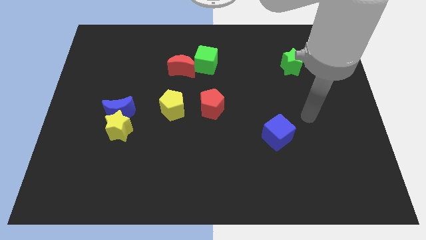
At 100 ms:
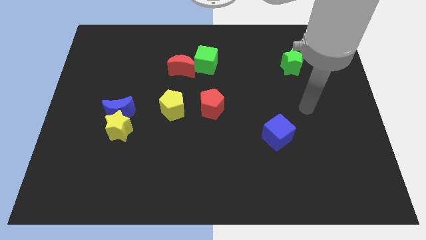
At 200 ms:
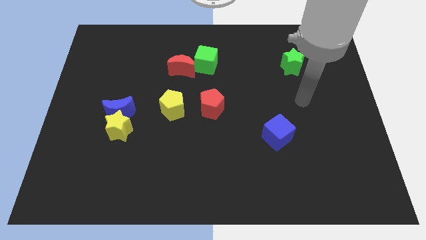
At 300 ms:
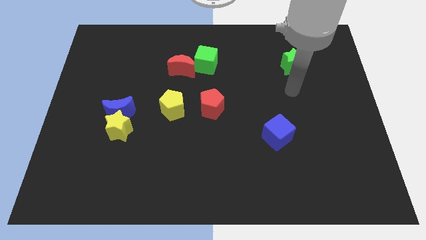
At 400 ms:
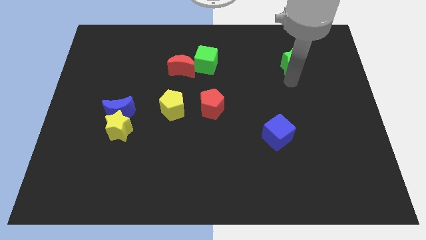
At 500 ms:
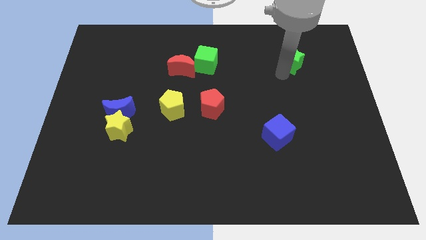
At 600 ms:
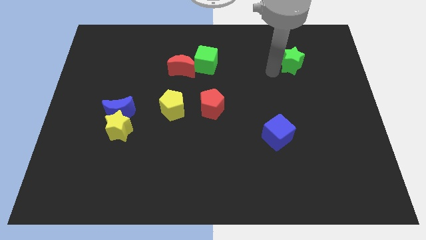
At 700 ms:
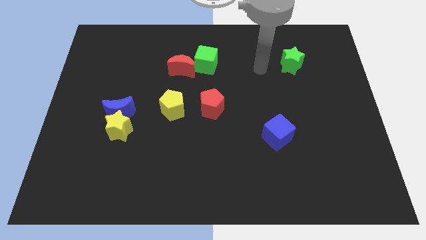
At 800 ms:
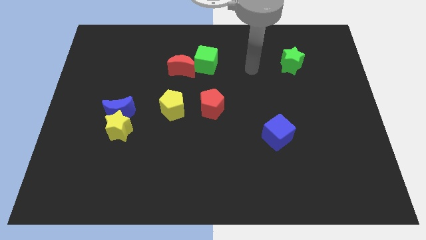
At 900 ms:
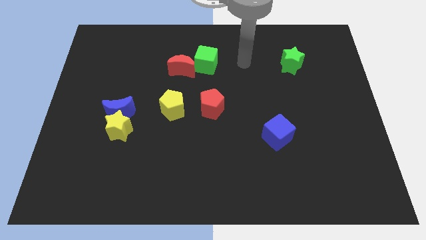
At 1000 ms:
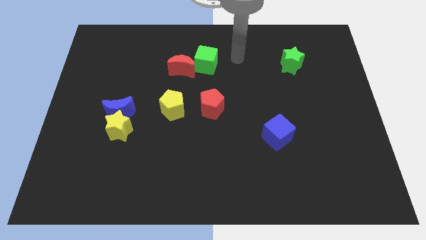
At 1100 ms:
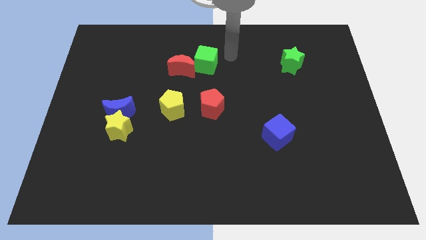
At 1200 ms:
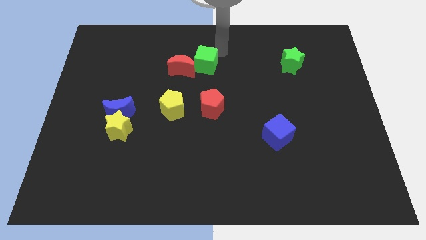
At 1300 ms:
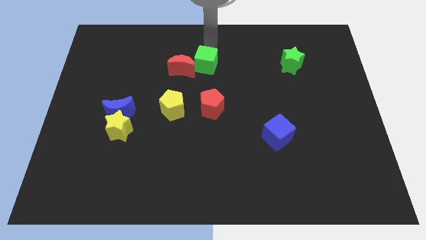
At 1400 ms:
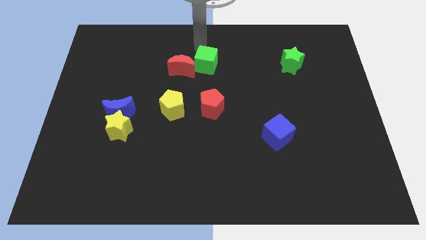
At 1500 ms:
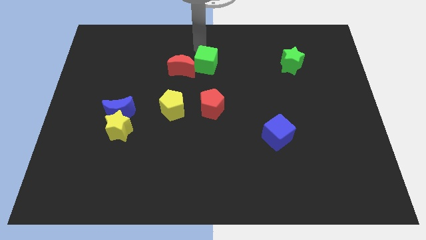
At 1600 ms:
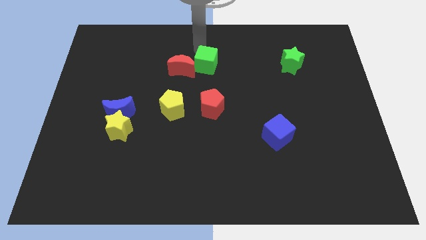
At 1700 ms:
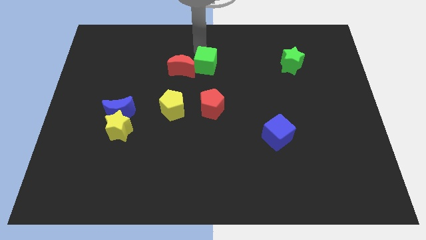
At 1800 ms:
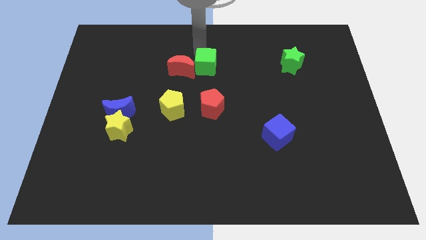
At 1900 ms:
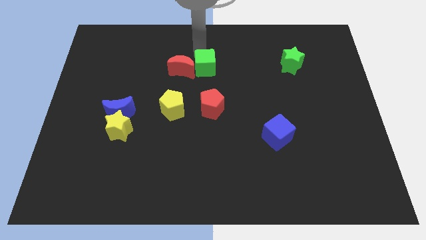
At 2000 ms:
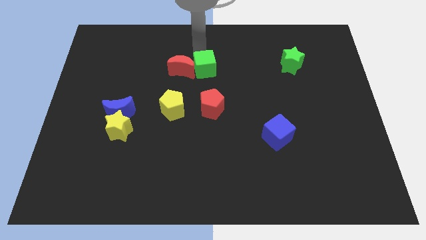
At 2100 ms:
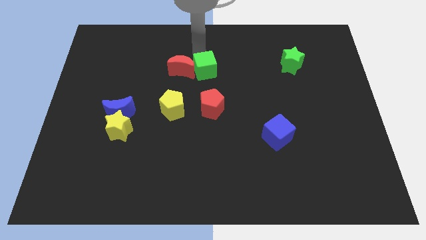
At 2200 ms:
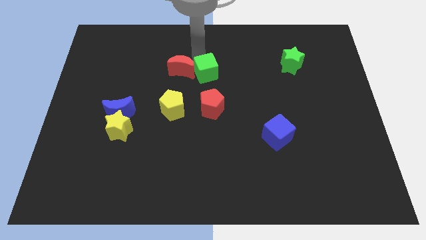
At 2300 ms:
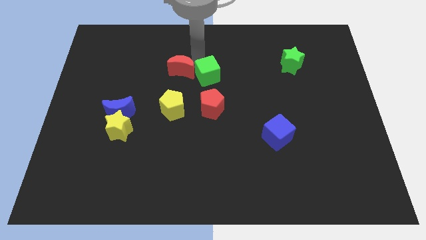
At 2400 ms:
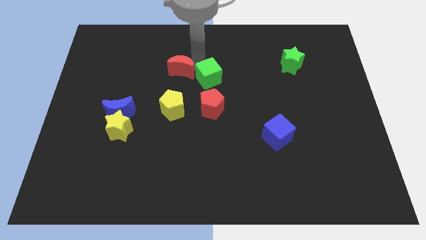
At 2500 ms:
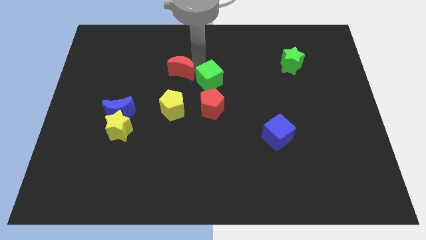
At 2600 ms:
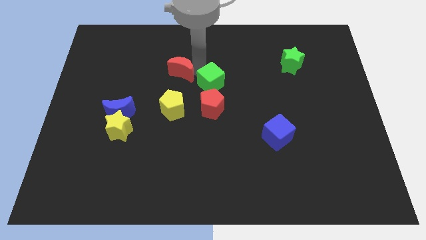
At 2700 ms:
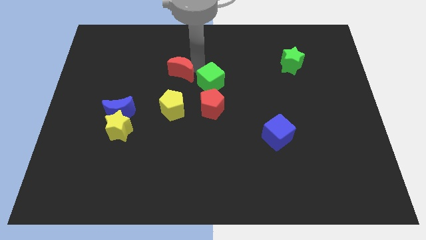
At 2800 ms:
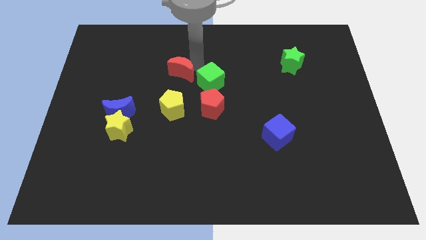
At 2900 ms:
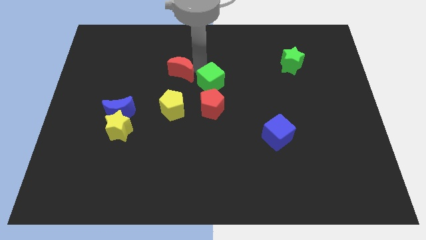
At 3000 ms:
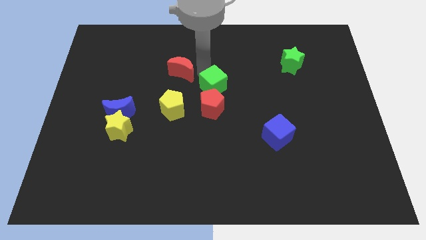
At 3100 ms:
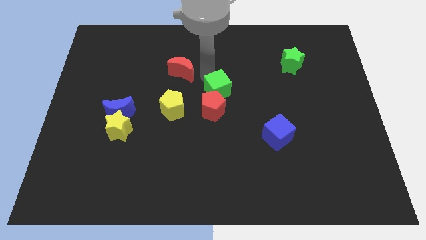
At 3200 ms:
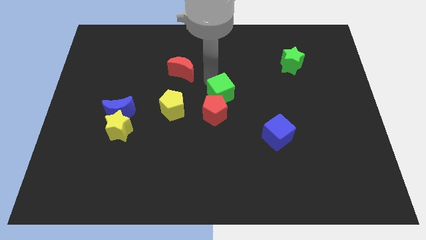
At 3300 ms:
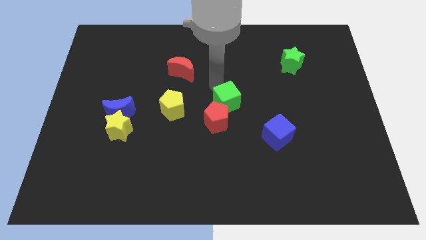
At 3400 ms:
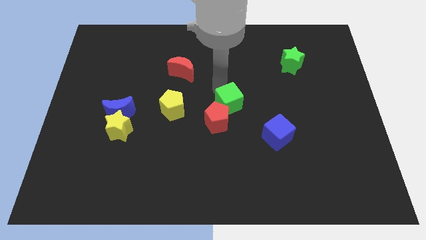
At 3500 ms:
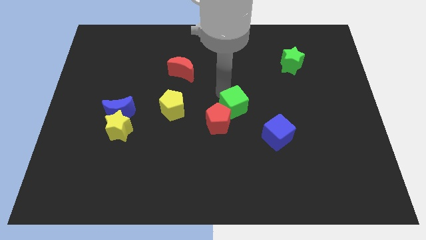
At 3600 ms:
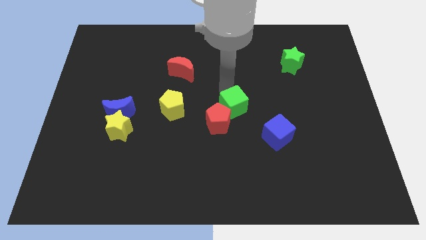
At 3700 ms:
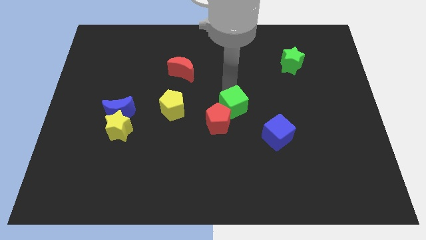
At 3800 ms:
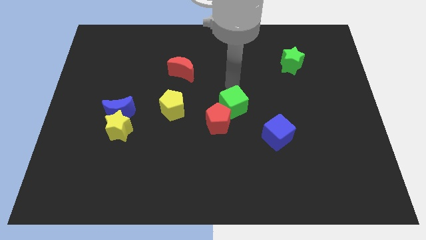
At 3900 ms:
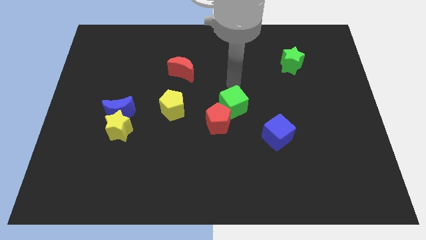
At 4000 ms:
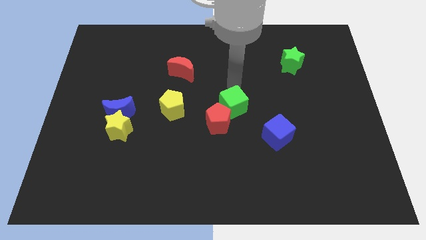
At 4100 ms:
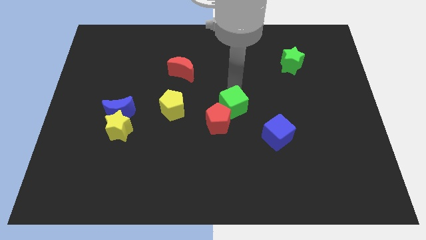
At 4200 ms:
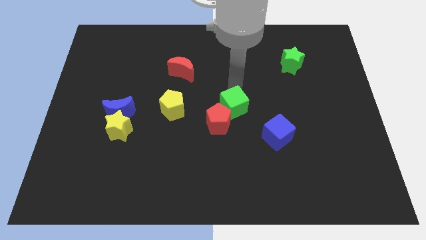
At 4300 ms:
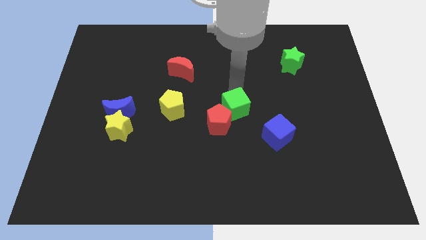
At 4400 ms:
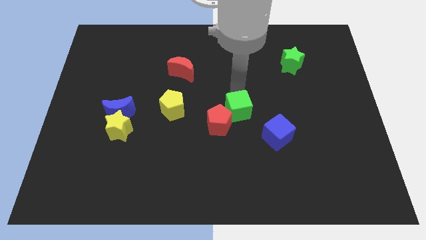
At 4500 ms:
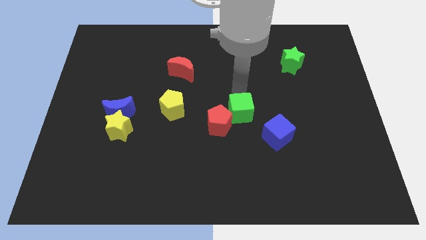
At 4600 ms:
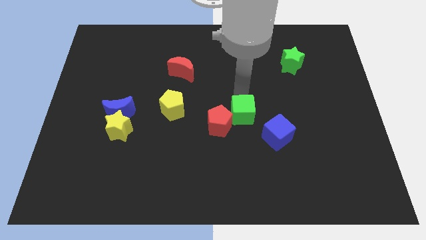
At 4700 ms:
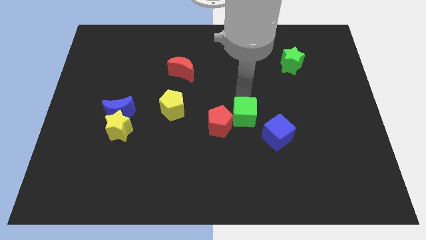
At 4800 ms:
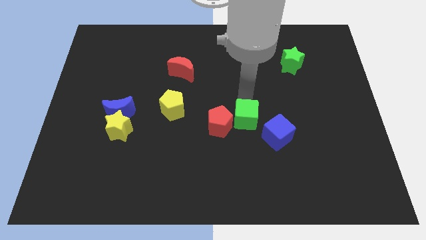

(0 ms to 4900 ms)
push the green cube to the left side of the blue cube

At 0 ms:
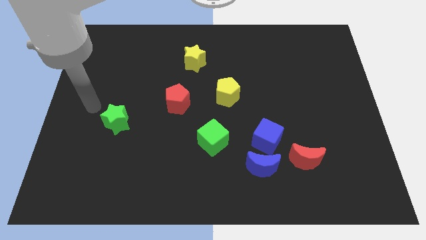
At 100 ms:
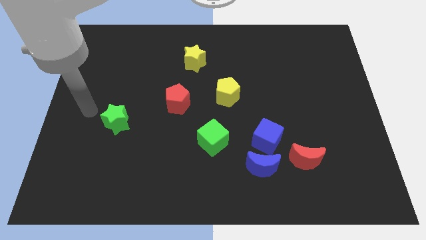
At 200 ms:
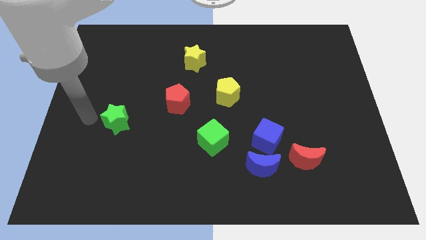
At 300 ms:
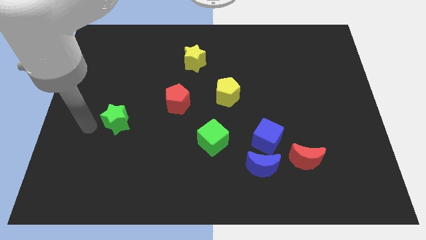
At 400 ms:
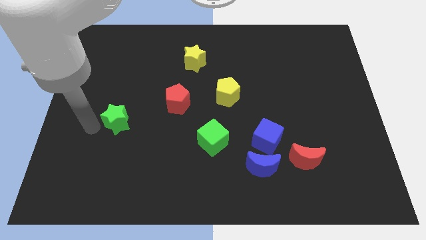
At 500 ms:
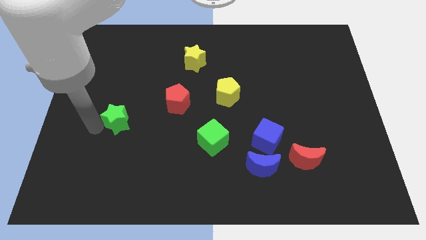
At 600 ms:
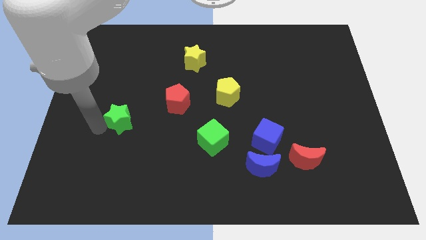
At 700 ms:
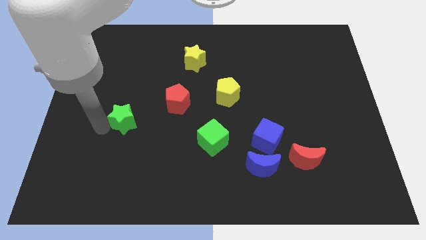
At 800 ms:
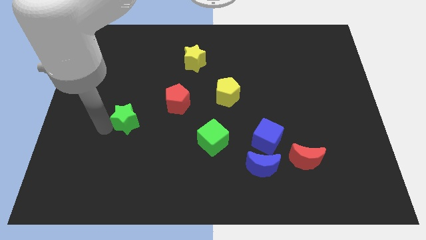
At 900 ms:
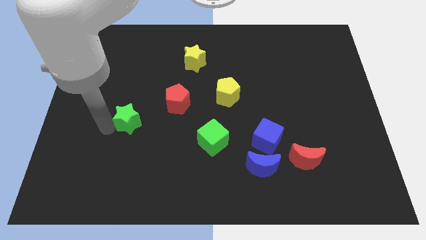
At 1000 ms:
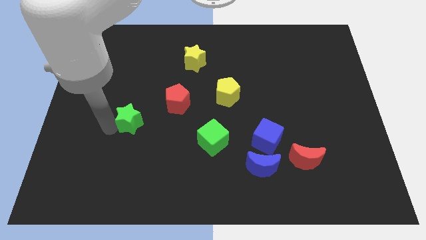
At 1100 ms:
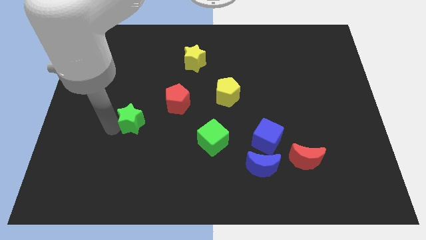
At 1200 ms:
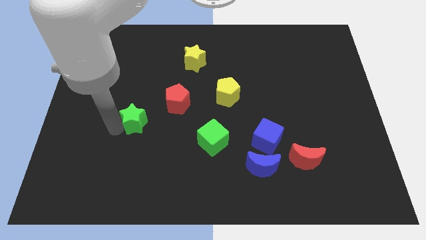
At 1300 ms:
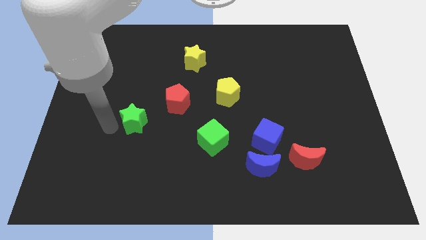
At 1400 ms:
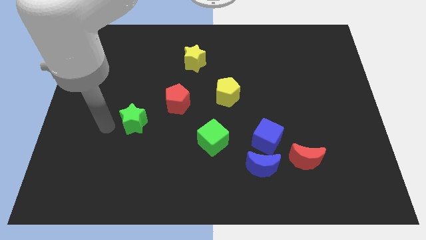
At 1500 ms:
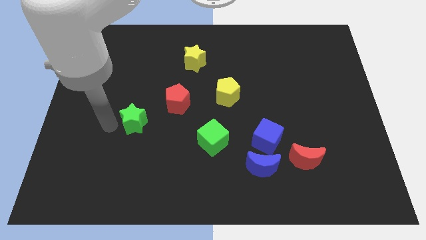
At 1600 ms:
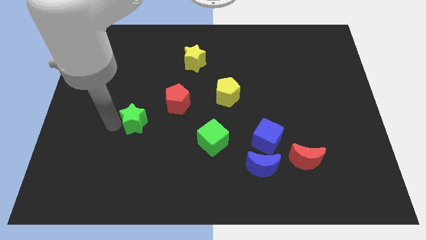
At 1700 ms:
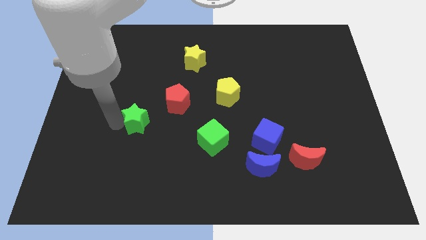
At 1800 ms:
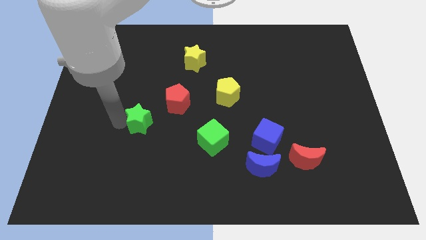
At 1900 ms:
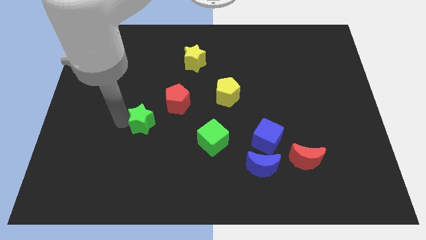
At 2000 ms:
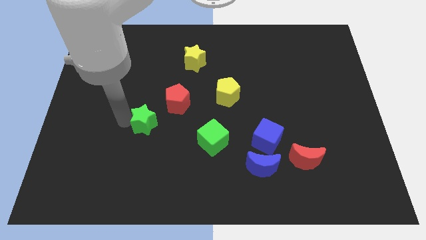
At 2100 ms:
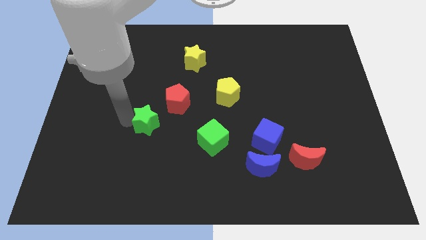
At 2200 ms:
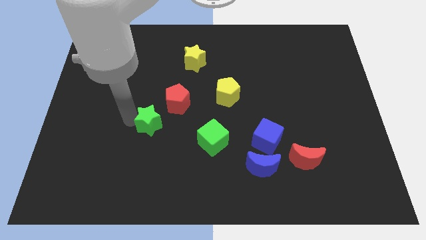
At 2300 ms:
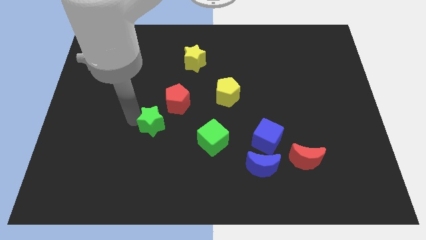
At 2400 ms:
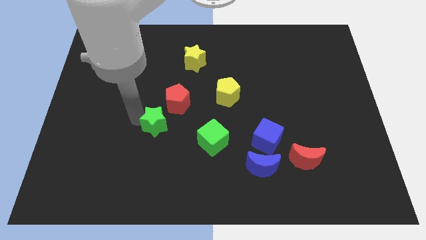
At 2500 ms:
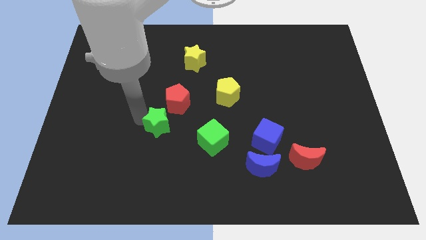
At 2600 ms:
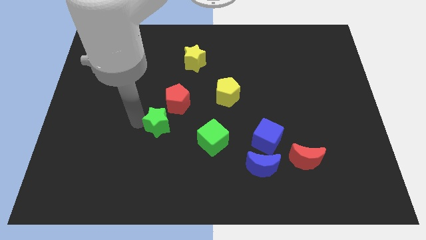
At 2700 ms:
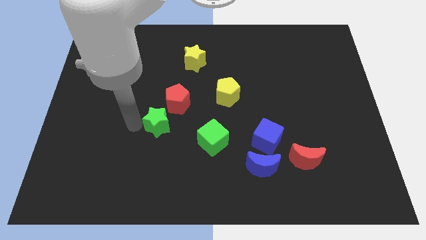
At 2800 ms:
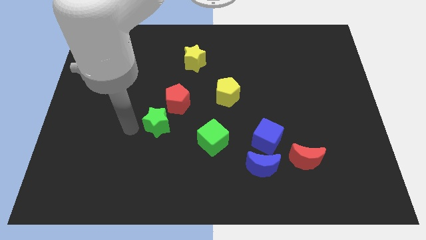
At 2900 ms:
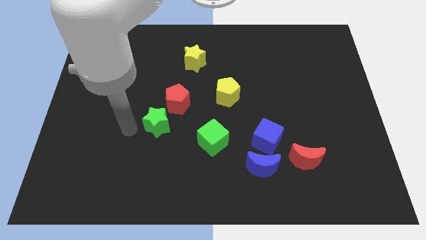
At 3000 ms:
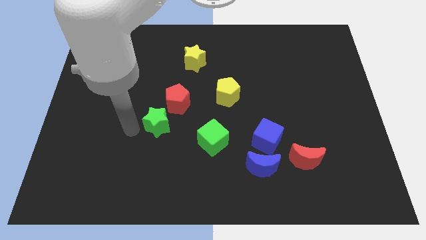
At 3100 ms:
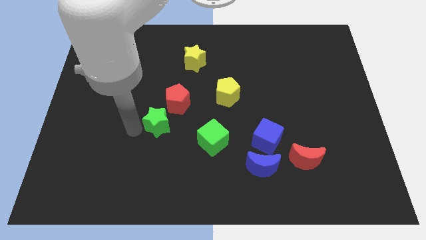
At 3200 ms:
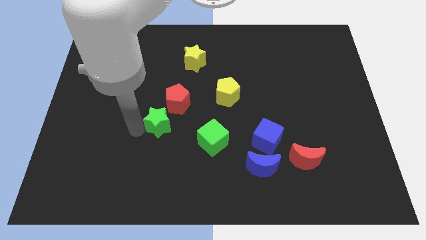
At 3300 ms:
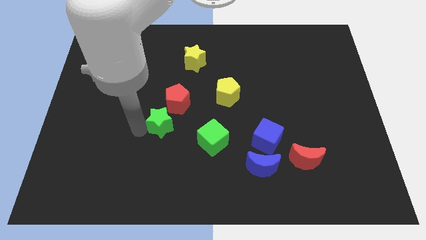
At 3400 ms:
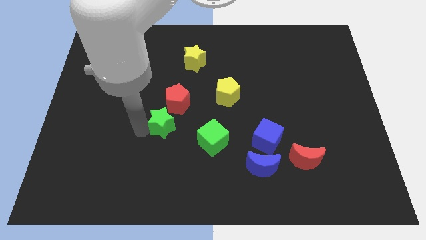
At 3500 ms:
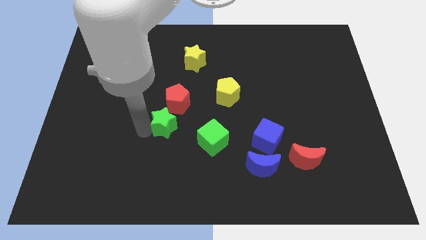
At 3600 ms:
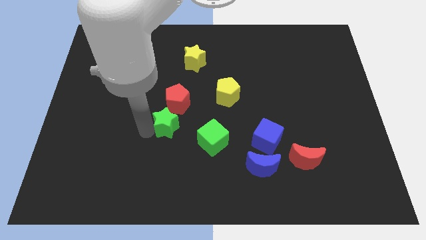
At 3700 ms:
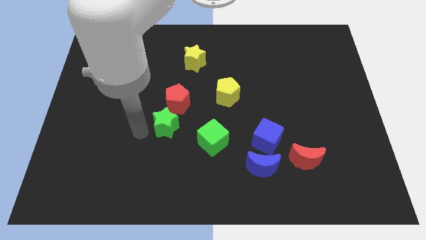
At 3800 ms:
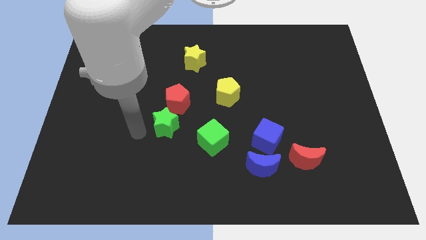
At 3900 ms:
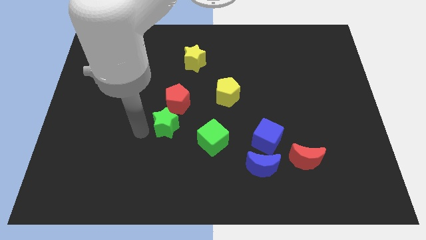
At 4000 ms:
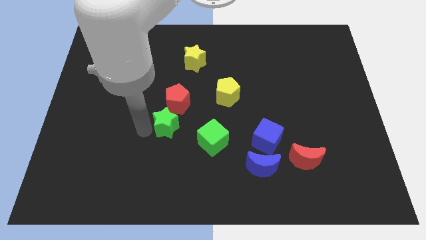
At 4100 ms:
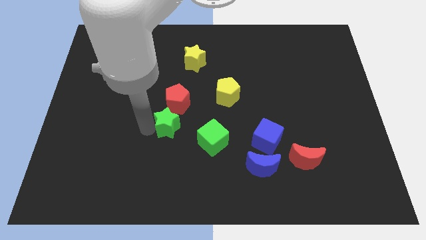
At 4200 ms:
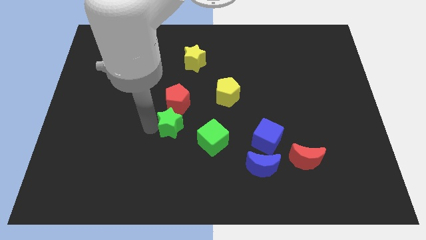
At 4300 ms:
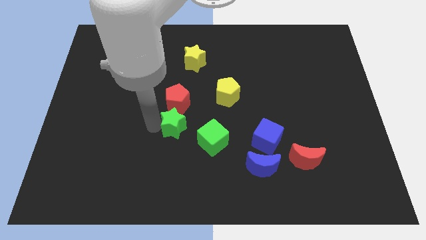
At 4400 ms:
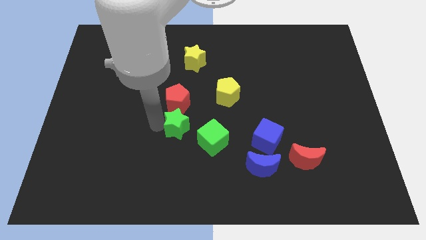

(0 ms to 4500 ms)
move the green star diagonally down and to the right of the red pentagon
